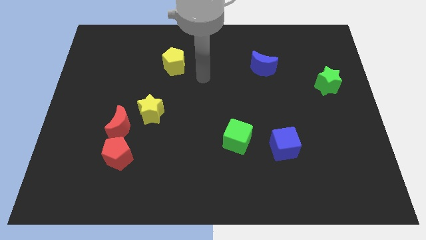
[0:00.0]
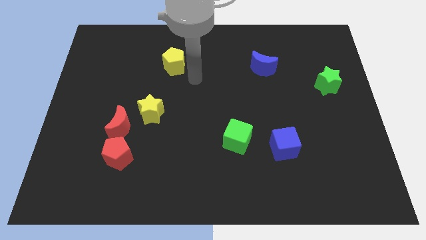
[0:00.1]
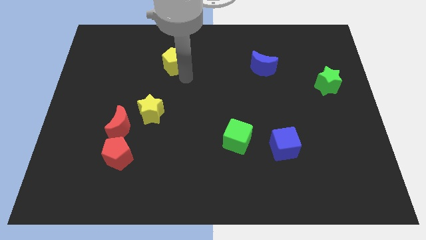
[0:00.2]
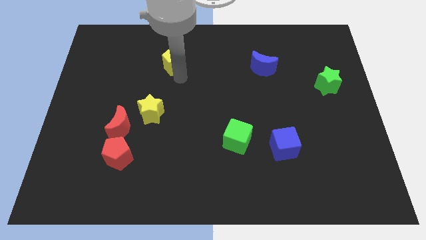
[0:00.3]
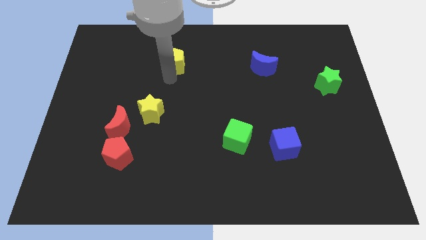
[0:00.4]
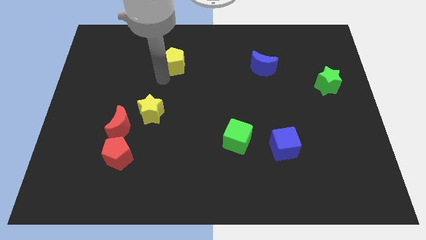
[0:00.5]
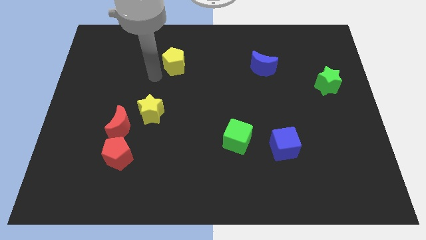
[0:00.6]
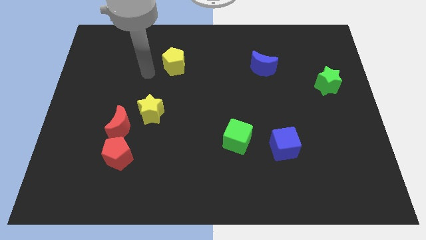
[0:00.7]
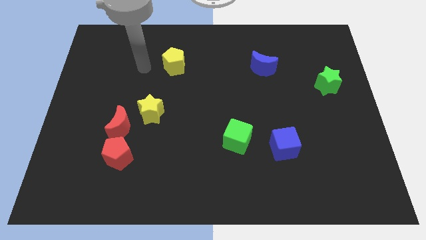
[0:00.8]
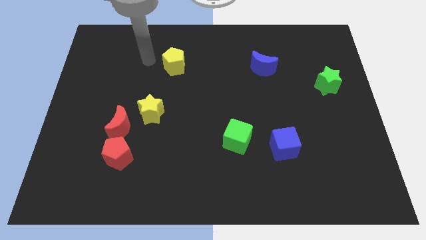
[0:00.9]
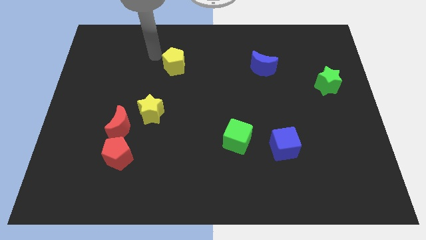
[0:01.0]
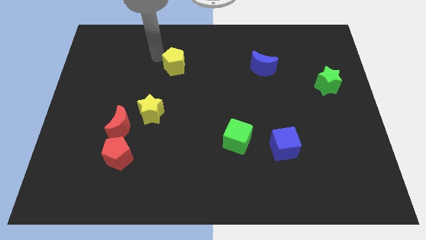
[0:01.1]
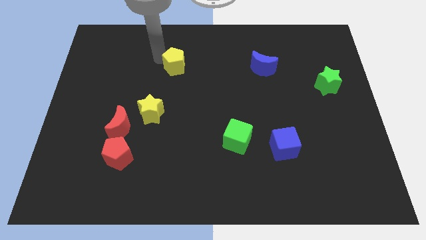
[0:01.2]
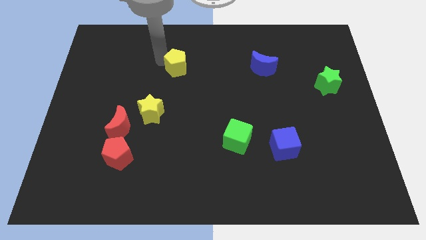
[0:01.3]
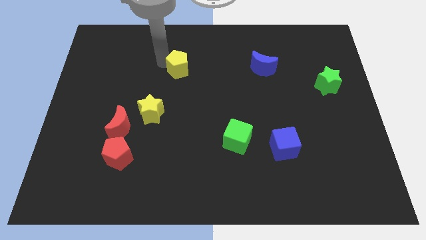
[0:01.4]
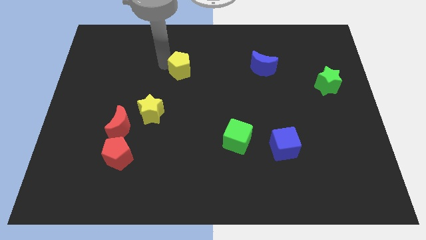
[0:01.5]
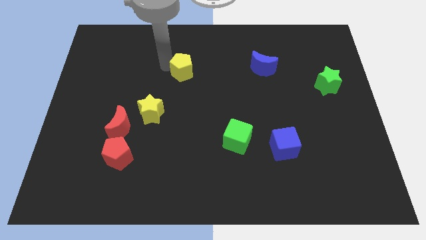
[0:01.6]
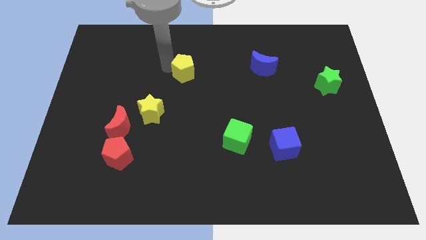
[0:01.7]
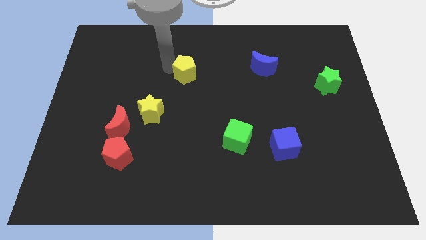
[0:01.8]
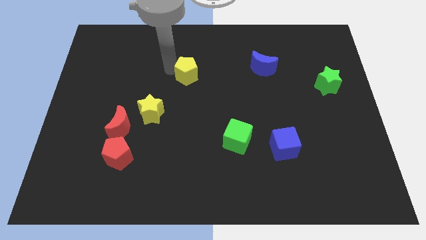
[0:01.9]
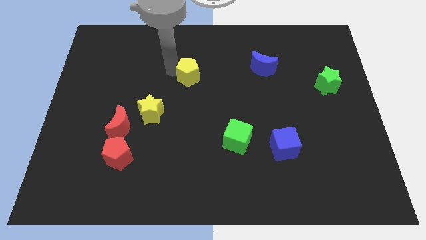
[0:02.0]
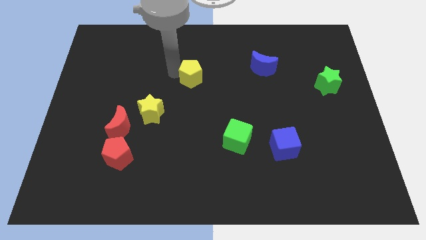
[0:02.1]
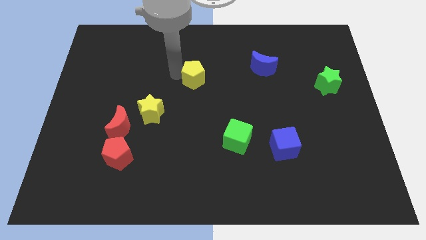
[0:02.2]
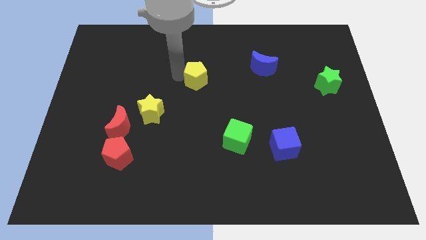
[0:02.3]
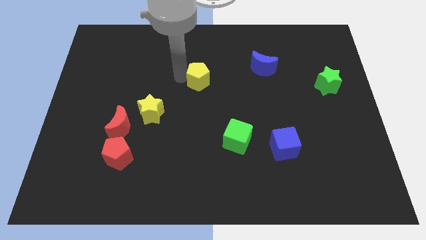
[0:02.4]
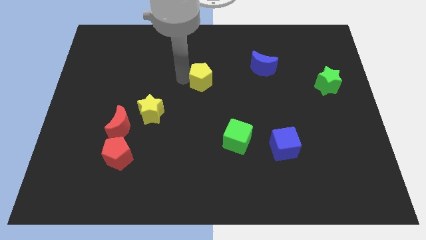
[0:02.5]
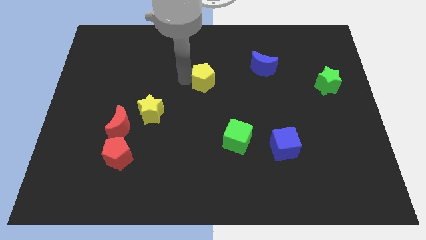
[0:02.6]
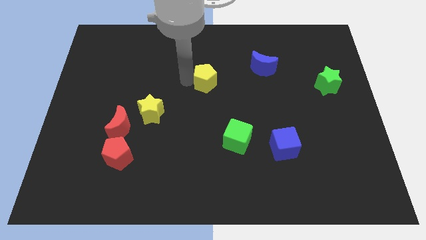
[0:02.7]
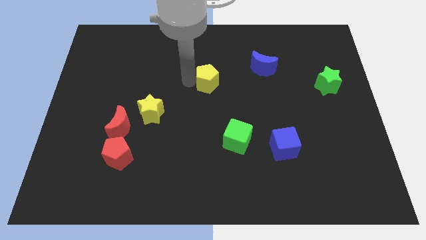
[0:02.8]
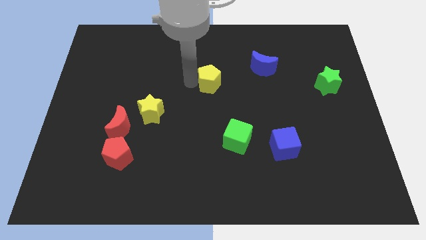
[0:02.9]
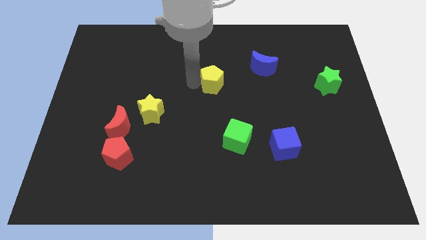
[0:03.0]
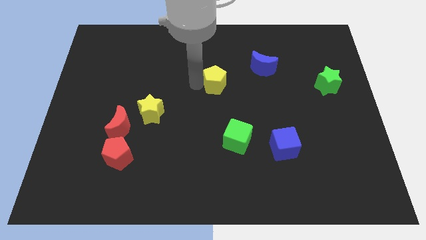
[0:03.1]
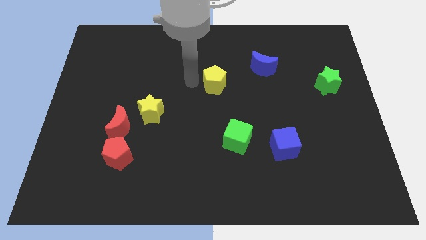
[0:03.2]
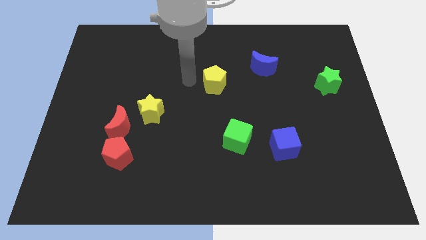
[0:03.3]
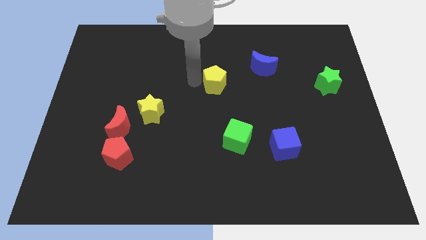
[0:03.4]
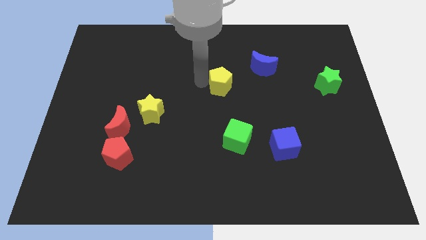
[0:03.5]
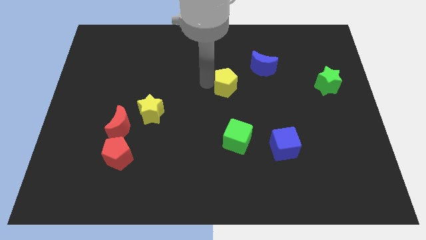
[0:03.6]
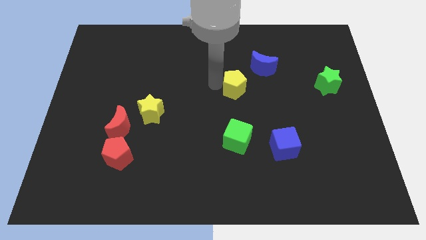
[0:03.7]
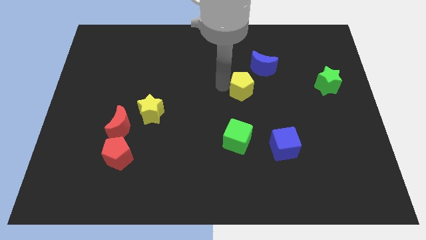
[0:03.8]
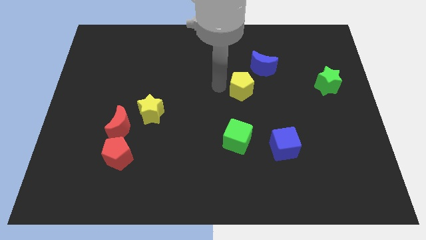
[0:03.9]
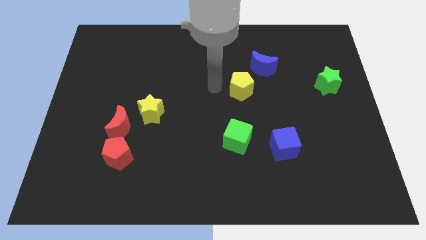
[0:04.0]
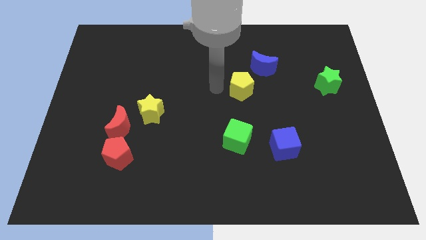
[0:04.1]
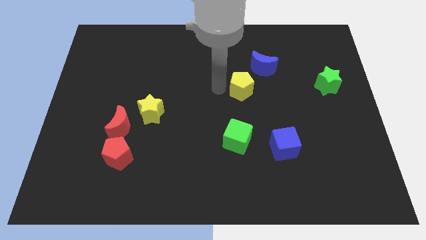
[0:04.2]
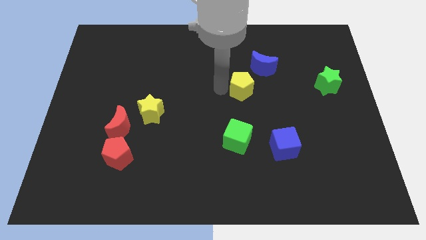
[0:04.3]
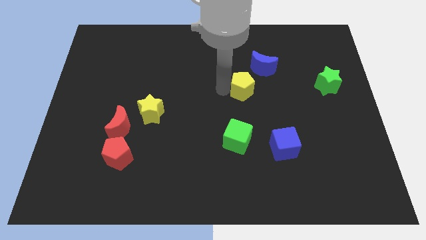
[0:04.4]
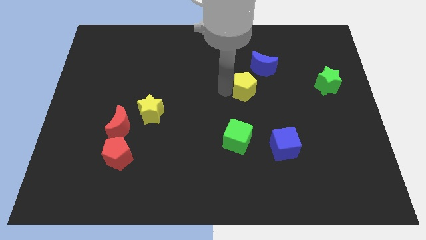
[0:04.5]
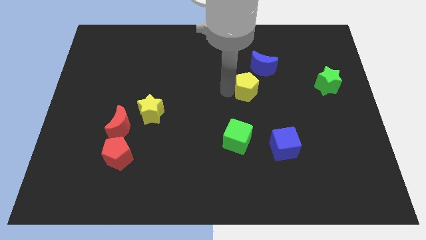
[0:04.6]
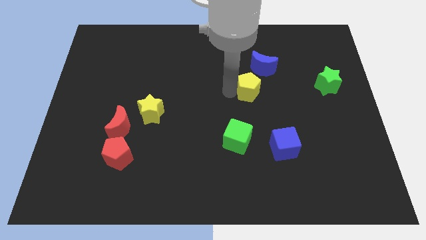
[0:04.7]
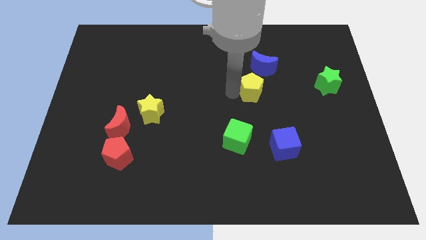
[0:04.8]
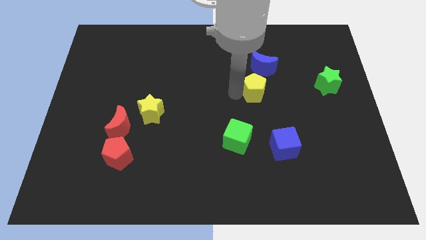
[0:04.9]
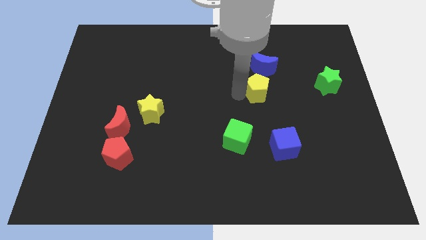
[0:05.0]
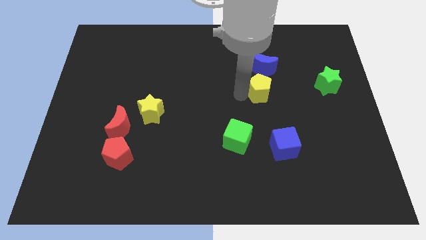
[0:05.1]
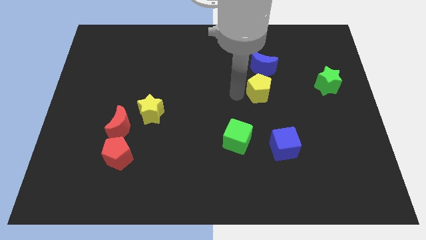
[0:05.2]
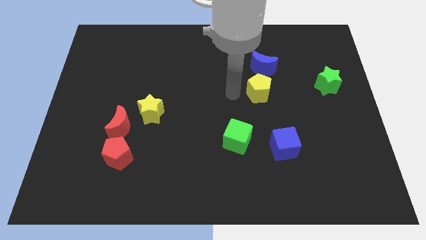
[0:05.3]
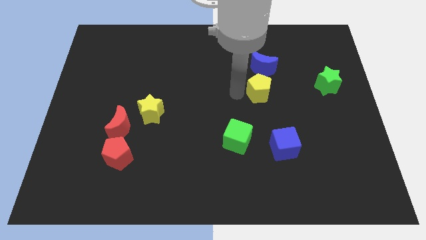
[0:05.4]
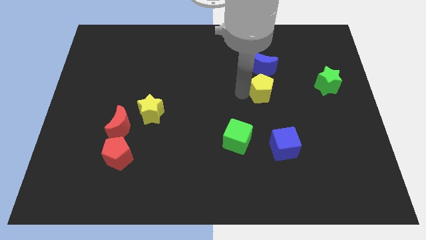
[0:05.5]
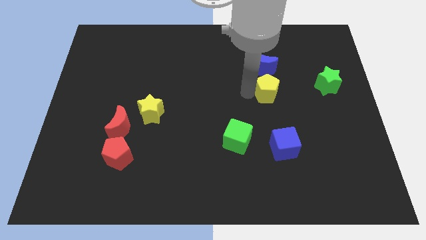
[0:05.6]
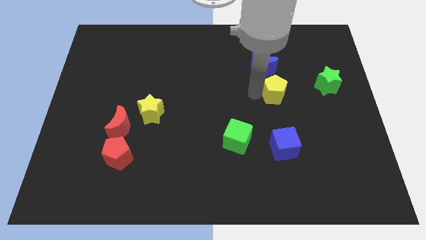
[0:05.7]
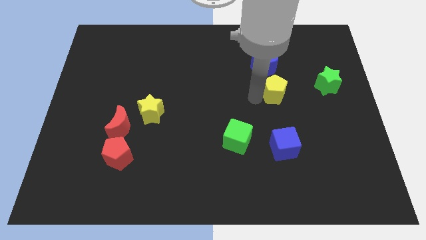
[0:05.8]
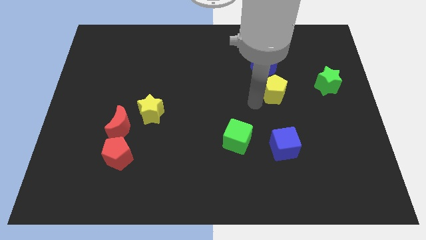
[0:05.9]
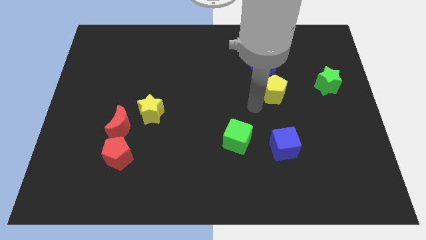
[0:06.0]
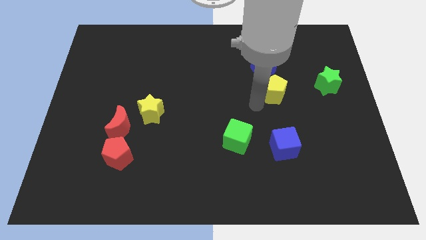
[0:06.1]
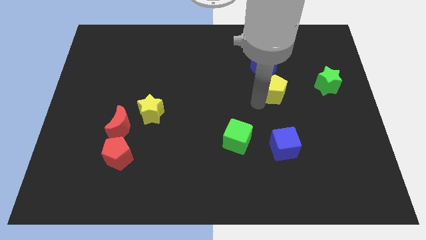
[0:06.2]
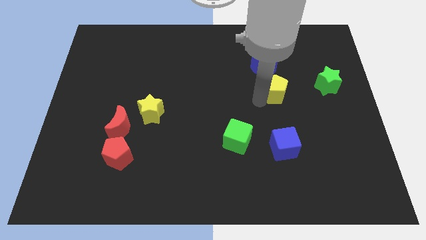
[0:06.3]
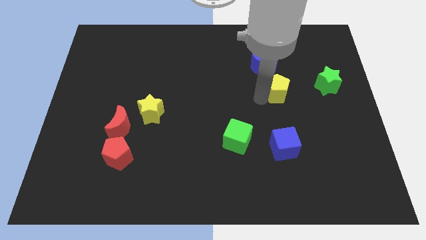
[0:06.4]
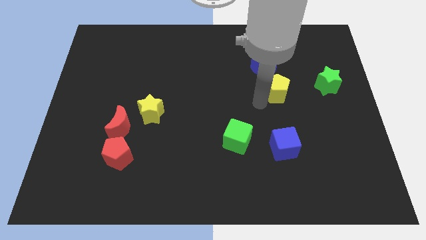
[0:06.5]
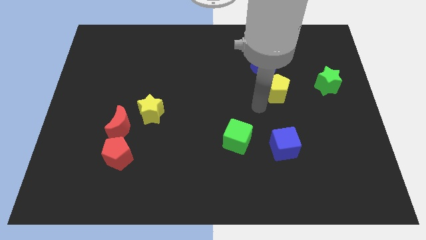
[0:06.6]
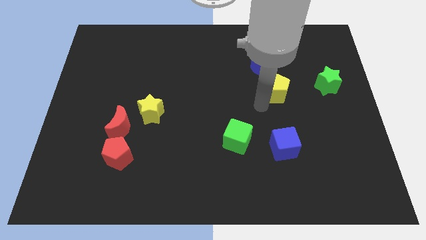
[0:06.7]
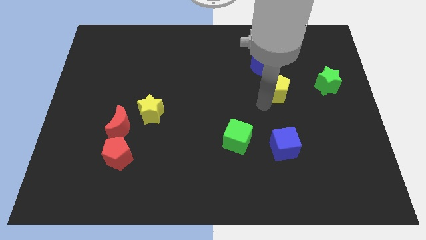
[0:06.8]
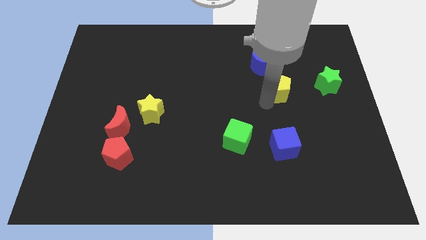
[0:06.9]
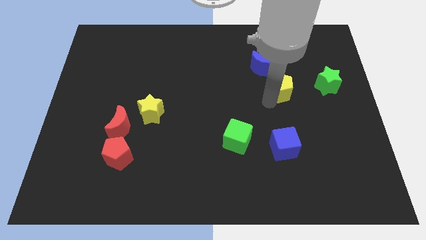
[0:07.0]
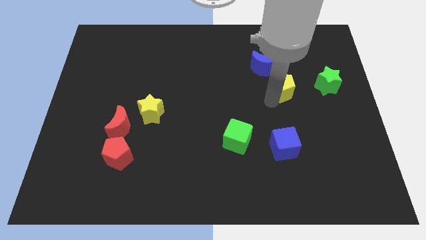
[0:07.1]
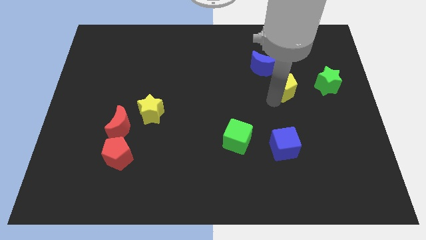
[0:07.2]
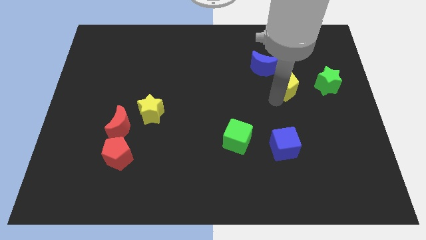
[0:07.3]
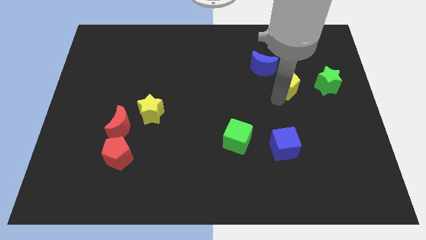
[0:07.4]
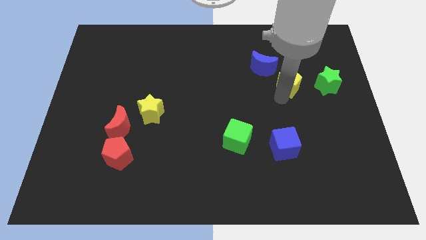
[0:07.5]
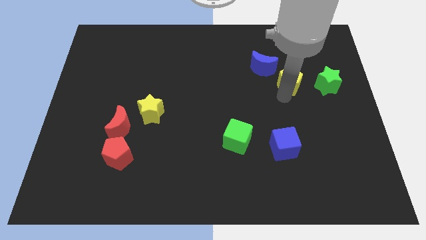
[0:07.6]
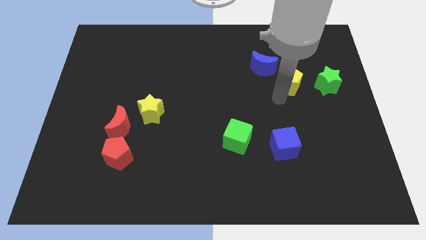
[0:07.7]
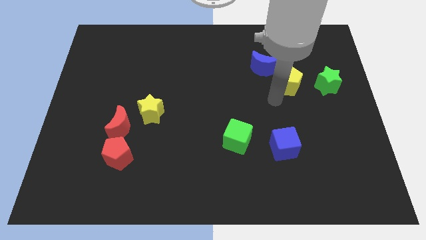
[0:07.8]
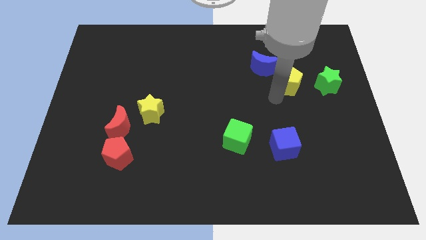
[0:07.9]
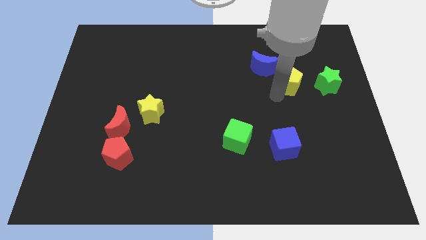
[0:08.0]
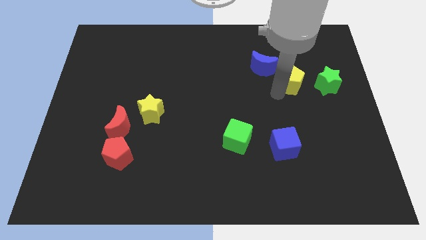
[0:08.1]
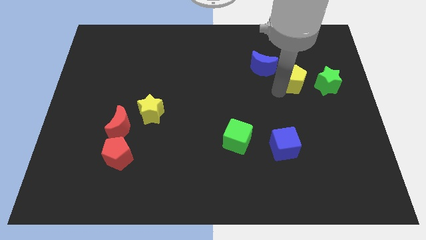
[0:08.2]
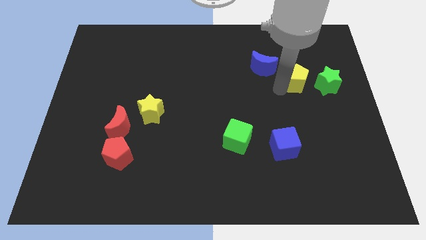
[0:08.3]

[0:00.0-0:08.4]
slide the yellow pentagon to the top left side of the green star
